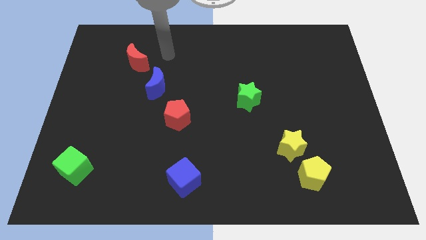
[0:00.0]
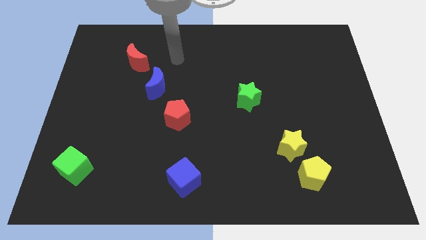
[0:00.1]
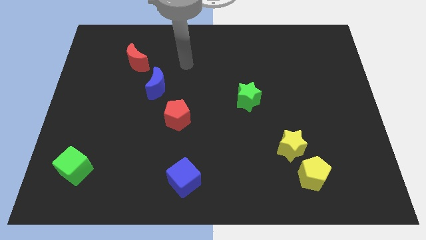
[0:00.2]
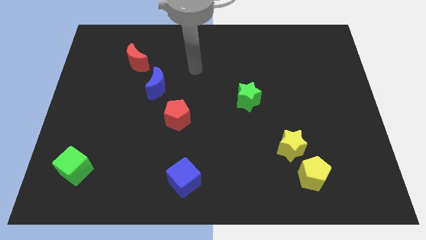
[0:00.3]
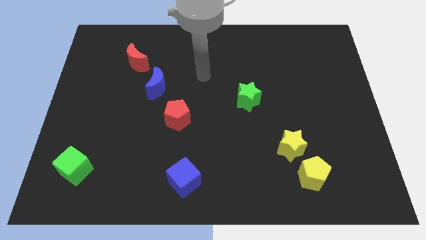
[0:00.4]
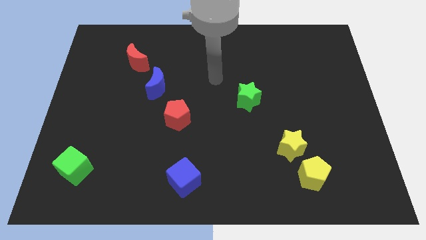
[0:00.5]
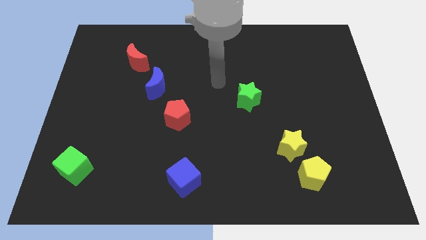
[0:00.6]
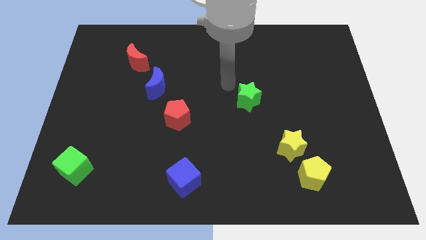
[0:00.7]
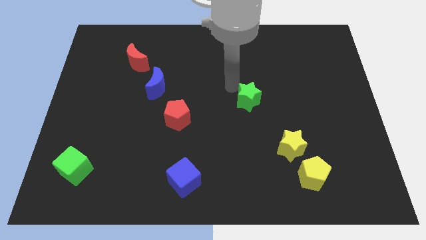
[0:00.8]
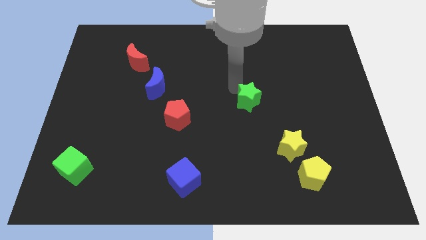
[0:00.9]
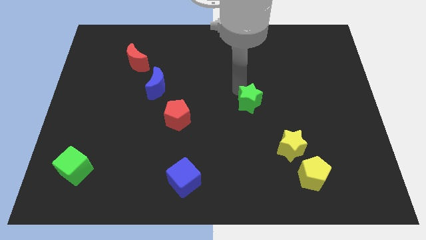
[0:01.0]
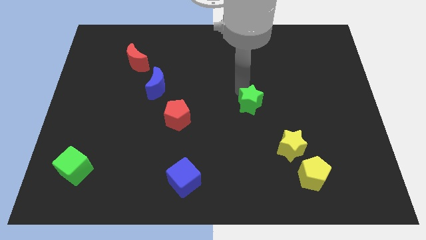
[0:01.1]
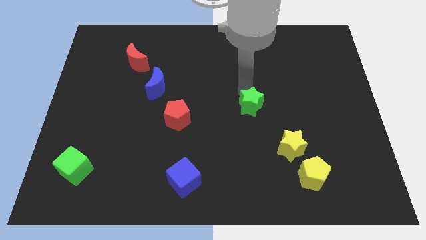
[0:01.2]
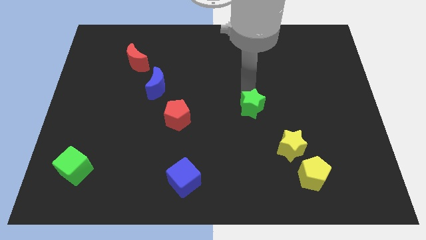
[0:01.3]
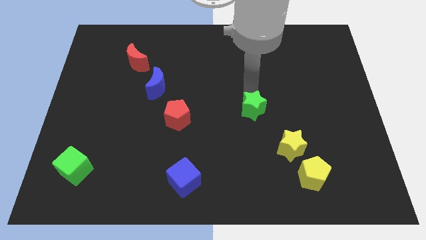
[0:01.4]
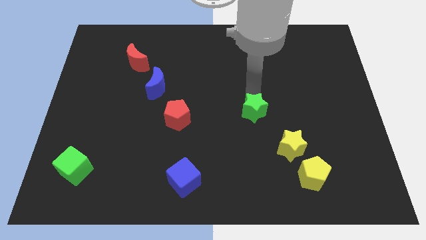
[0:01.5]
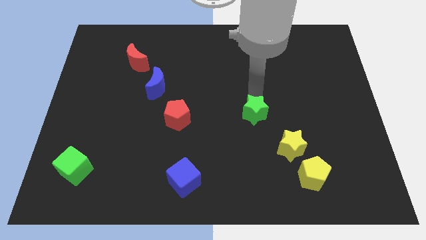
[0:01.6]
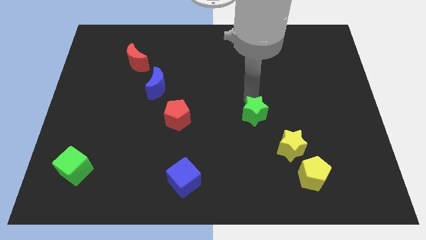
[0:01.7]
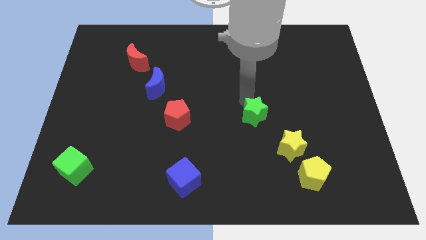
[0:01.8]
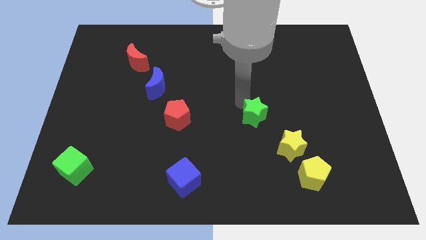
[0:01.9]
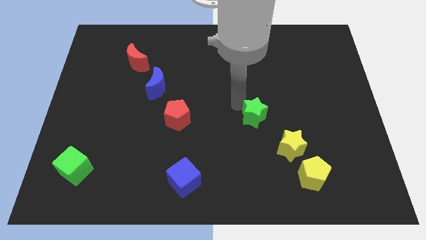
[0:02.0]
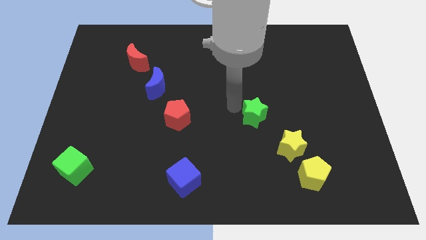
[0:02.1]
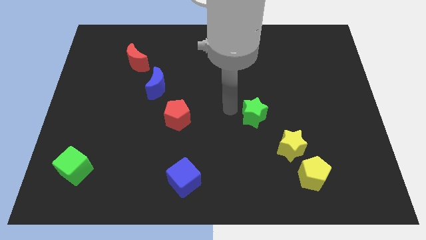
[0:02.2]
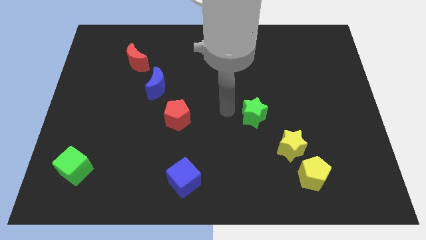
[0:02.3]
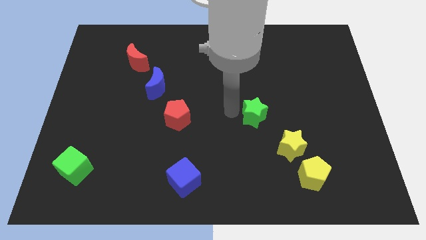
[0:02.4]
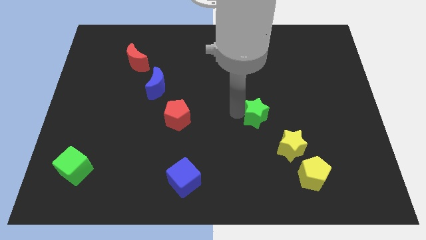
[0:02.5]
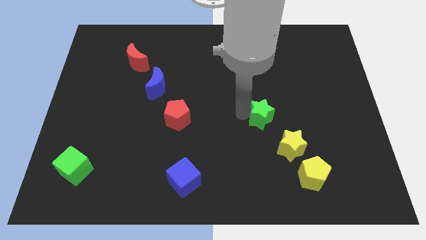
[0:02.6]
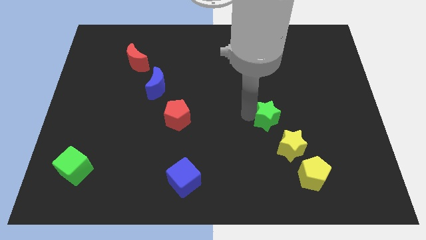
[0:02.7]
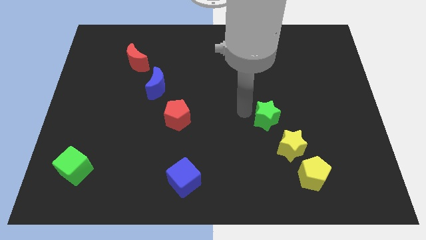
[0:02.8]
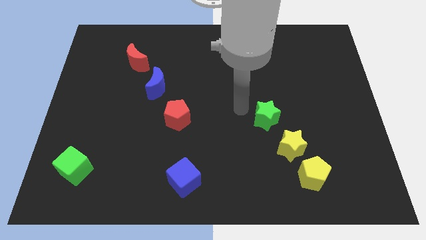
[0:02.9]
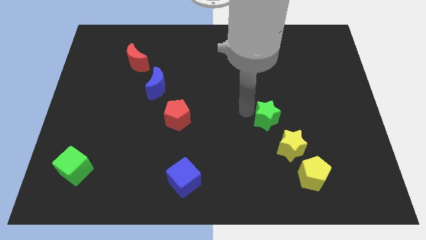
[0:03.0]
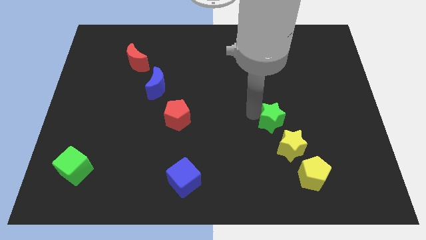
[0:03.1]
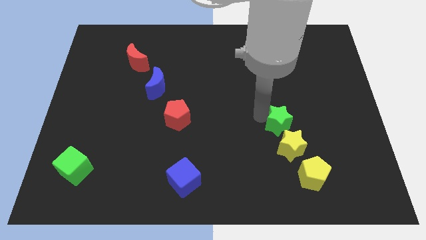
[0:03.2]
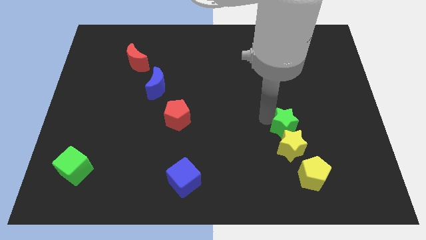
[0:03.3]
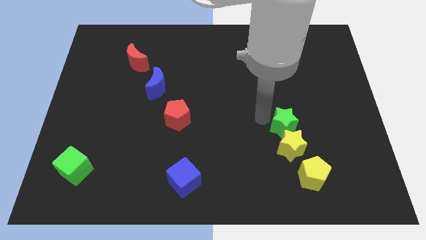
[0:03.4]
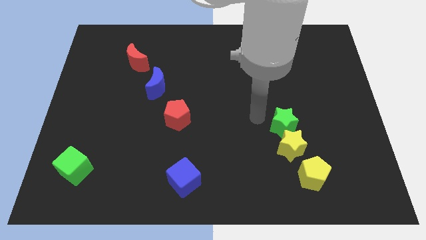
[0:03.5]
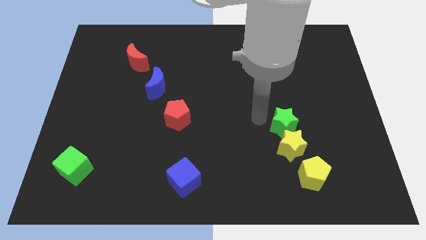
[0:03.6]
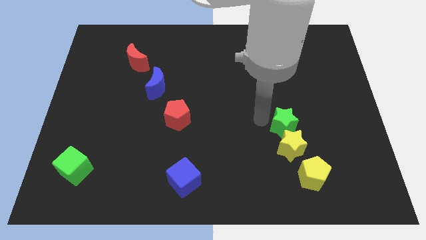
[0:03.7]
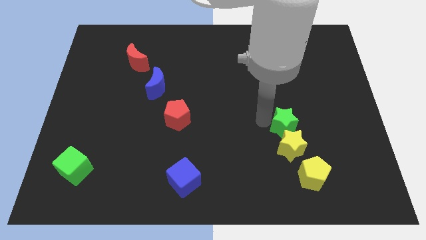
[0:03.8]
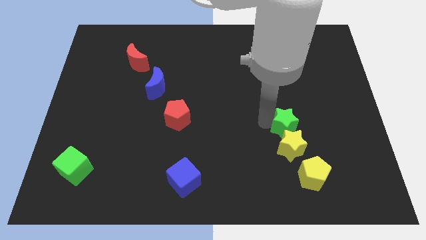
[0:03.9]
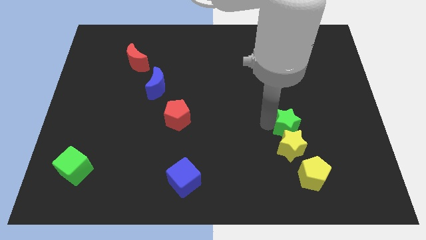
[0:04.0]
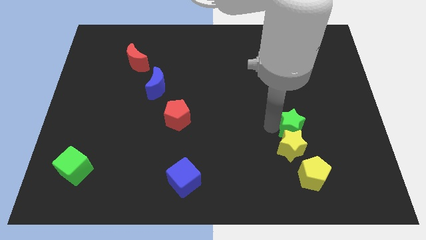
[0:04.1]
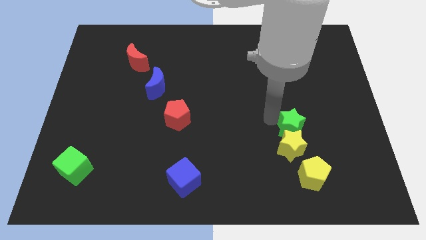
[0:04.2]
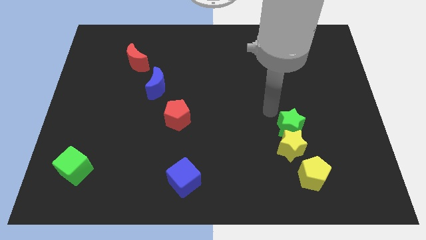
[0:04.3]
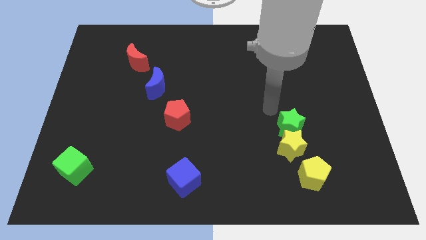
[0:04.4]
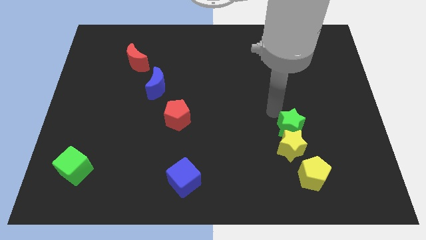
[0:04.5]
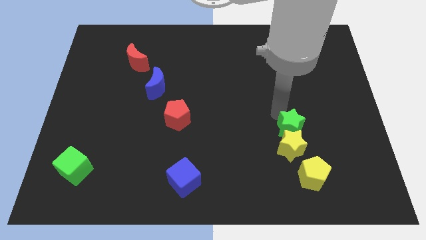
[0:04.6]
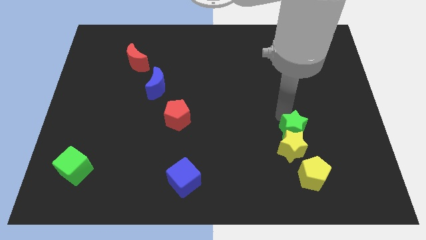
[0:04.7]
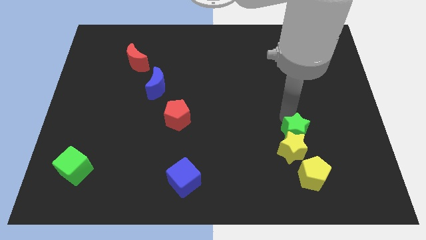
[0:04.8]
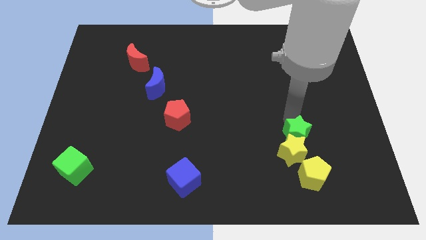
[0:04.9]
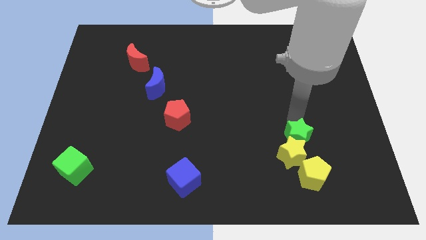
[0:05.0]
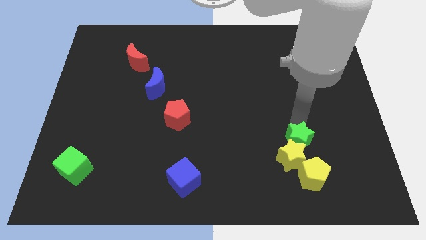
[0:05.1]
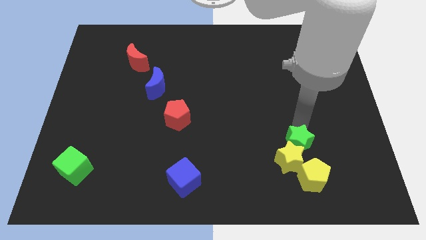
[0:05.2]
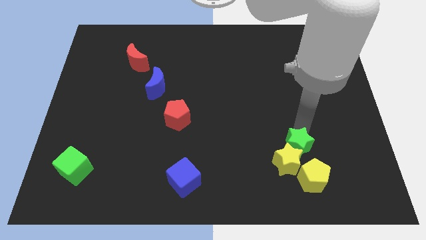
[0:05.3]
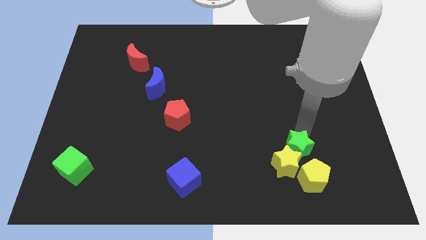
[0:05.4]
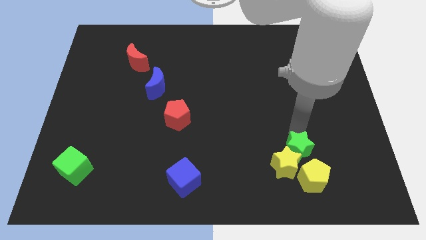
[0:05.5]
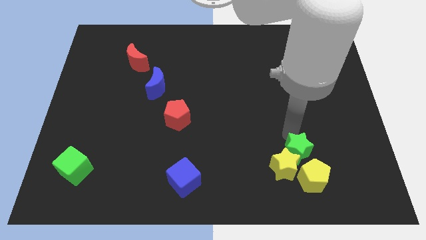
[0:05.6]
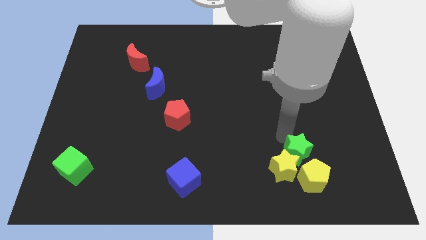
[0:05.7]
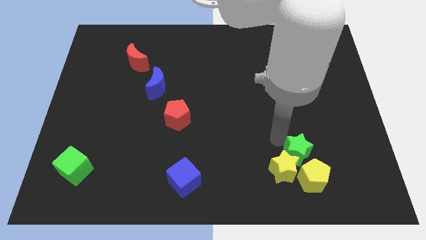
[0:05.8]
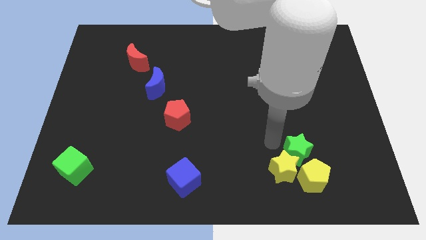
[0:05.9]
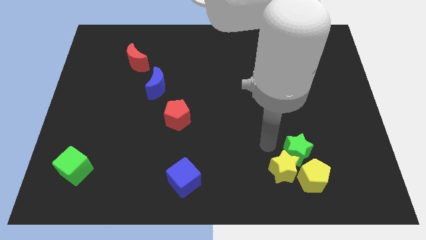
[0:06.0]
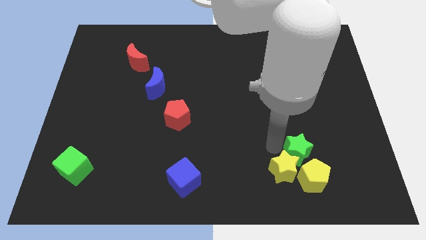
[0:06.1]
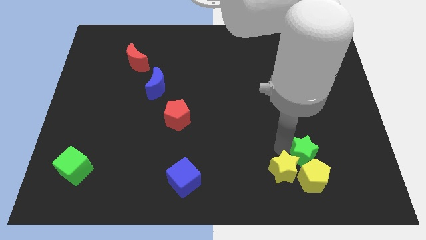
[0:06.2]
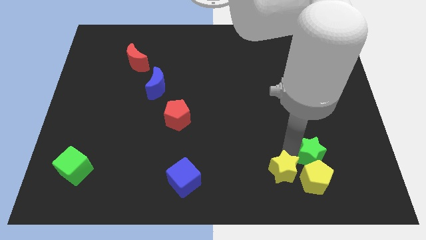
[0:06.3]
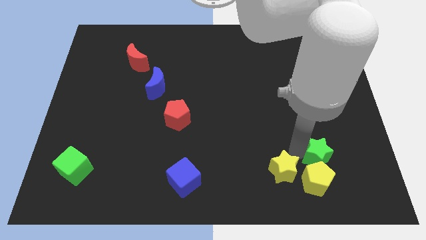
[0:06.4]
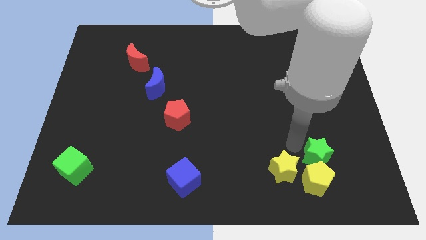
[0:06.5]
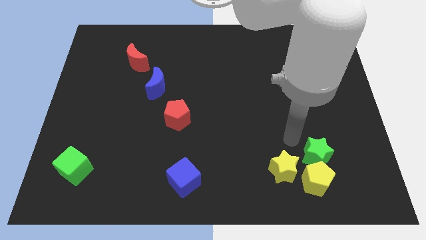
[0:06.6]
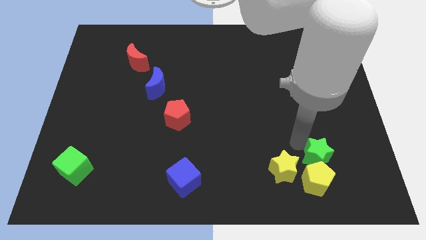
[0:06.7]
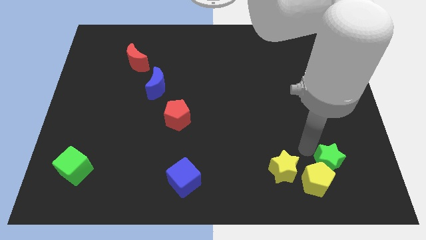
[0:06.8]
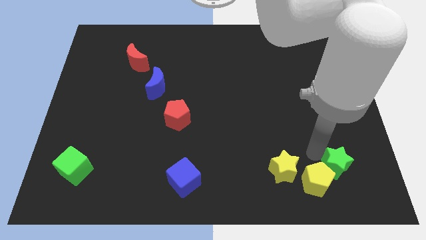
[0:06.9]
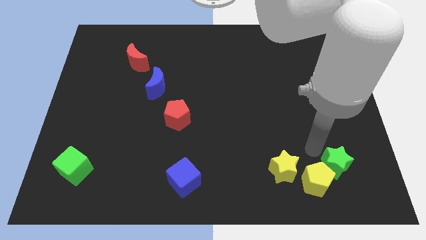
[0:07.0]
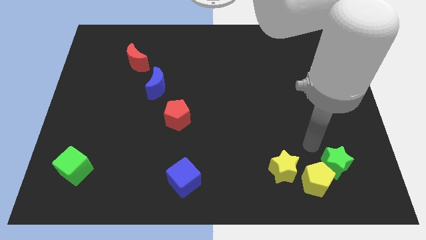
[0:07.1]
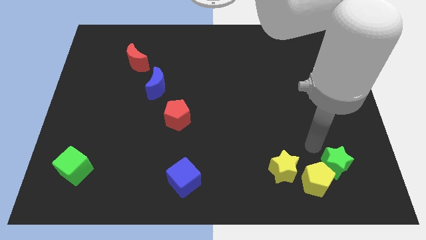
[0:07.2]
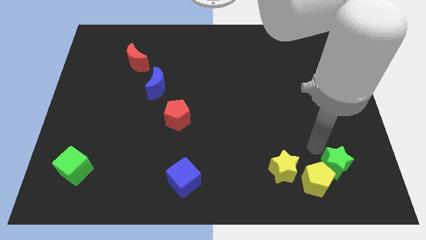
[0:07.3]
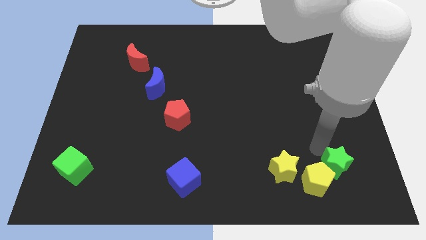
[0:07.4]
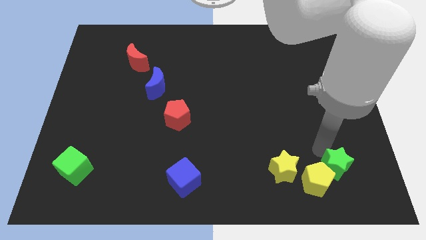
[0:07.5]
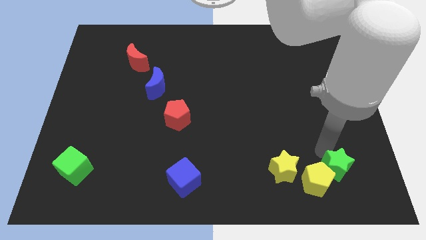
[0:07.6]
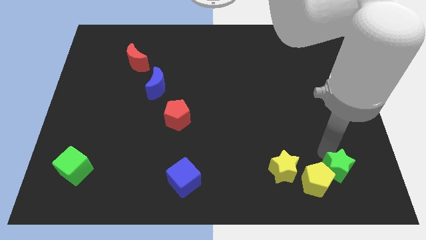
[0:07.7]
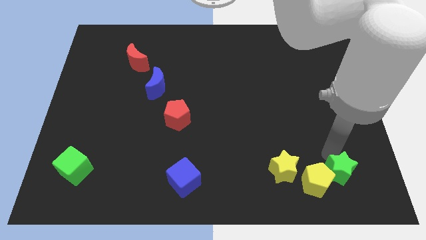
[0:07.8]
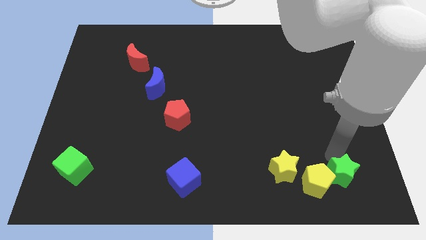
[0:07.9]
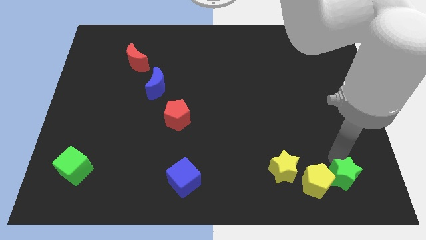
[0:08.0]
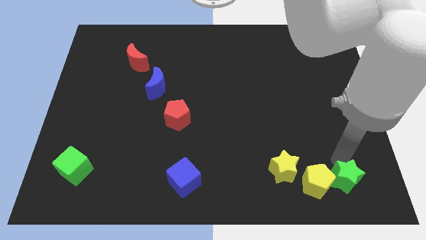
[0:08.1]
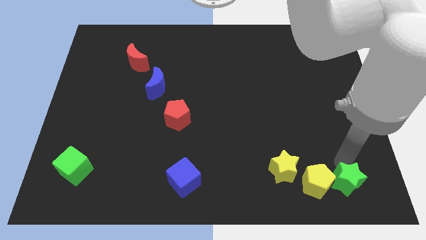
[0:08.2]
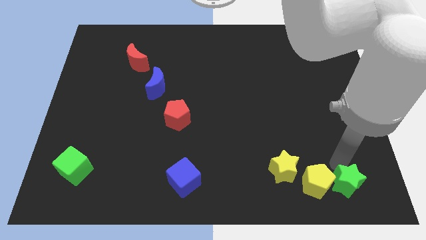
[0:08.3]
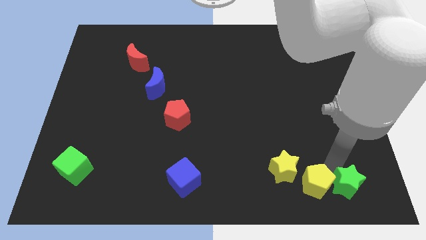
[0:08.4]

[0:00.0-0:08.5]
push the green star to the bottom right
